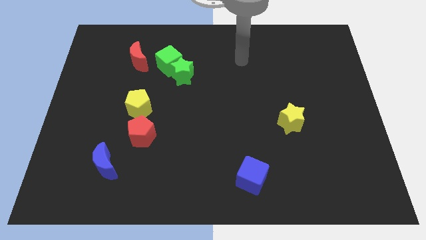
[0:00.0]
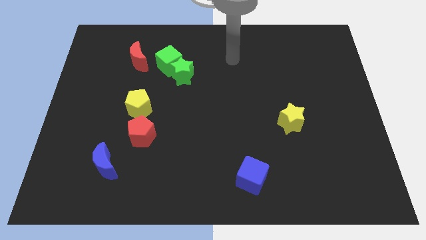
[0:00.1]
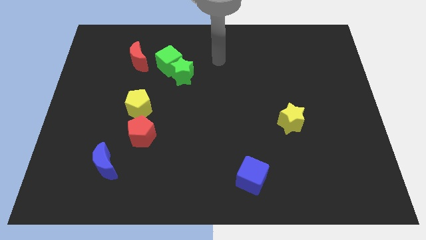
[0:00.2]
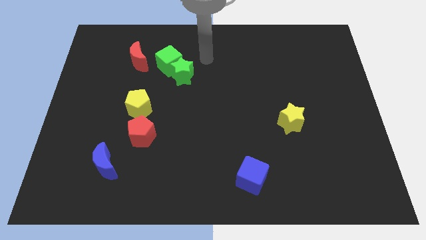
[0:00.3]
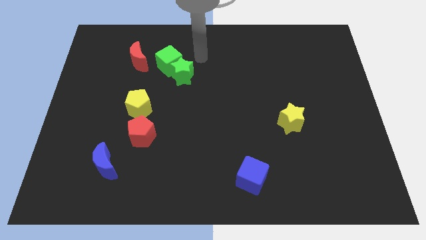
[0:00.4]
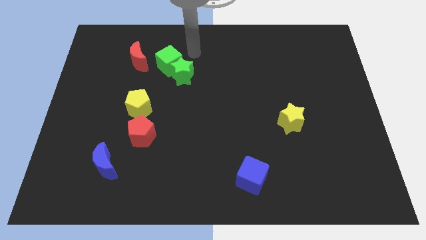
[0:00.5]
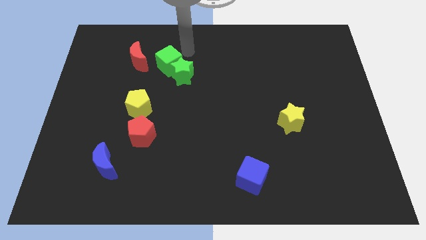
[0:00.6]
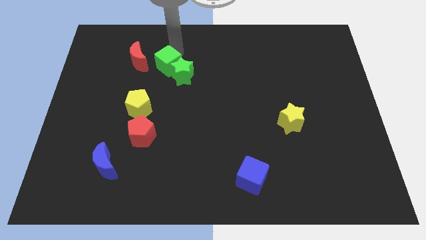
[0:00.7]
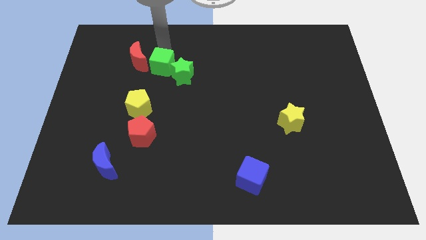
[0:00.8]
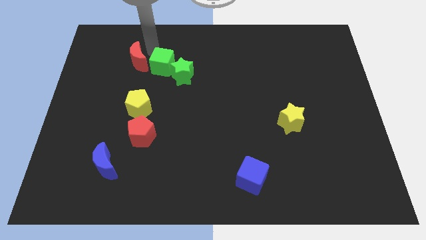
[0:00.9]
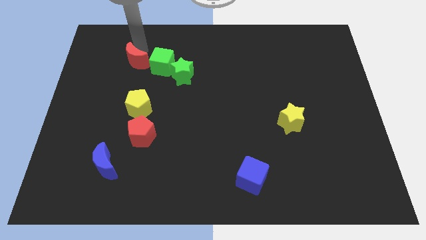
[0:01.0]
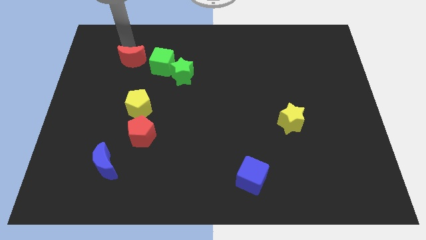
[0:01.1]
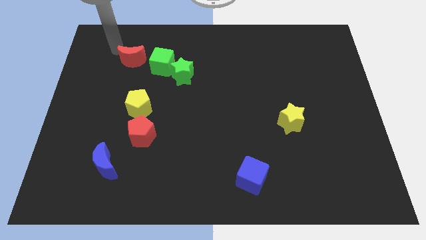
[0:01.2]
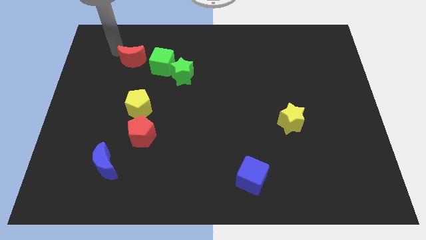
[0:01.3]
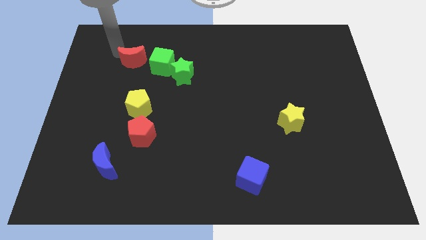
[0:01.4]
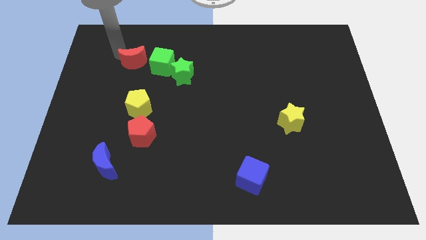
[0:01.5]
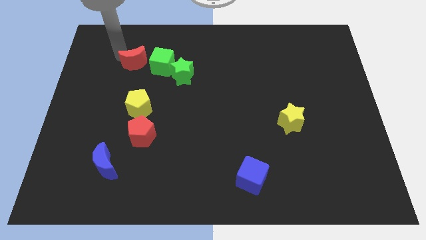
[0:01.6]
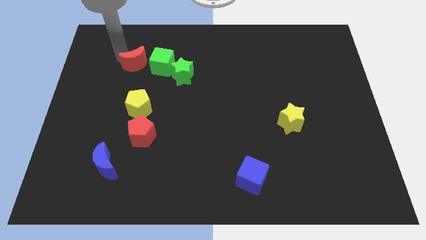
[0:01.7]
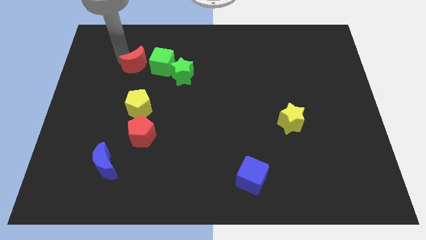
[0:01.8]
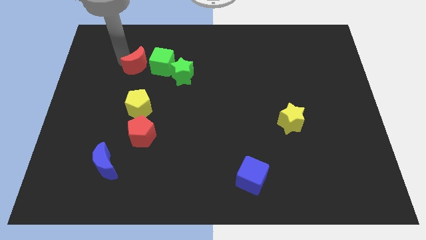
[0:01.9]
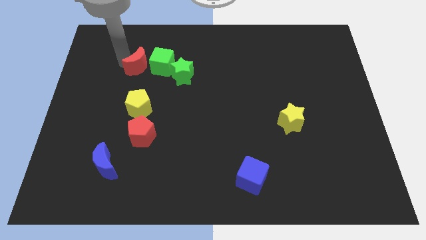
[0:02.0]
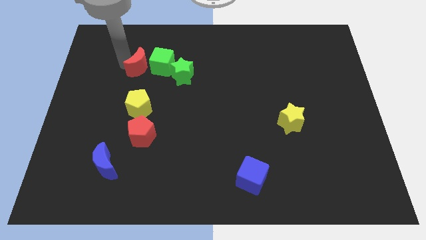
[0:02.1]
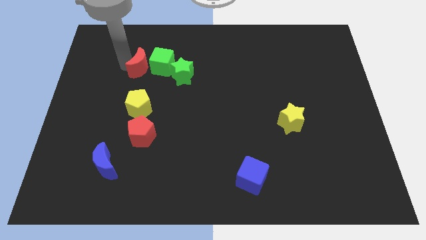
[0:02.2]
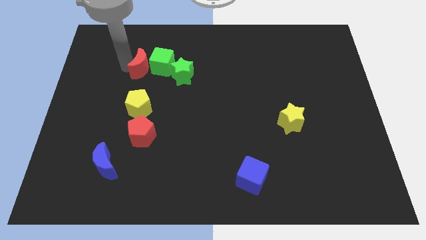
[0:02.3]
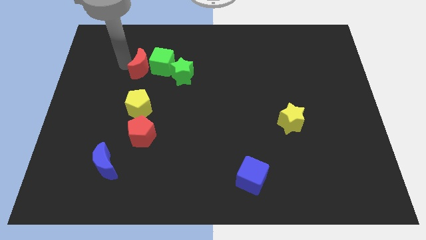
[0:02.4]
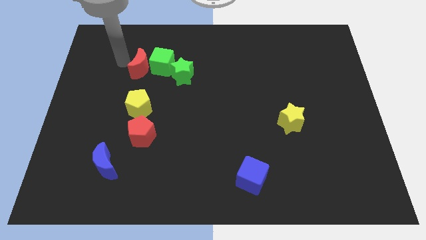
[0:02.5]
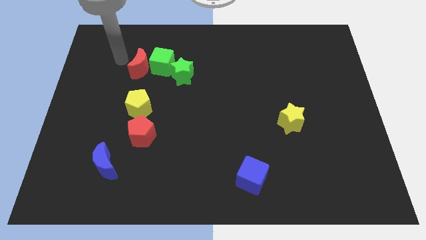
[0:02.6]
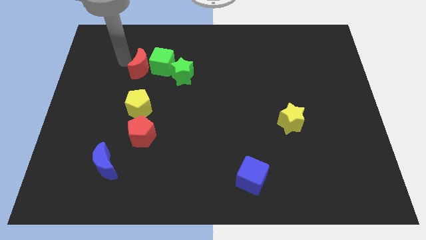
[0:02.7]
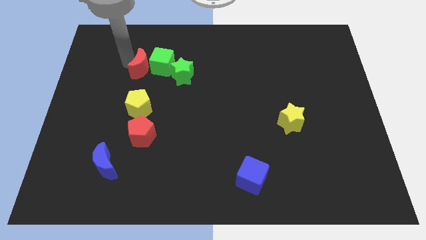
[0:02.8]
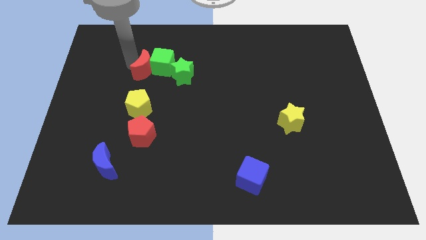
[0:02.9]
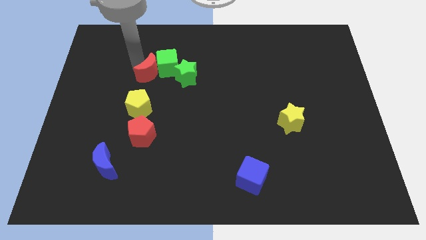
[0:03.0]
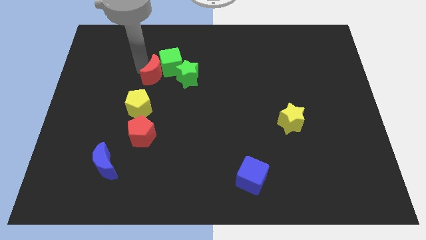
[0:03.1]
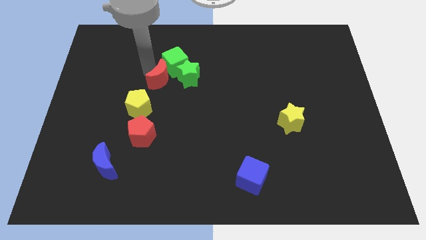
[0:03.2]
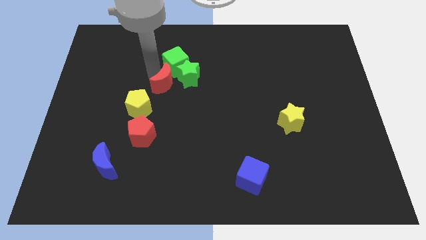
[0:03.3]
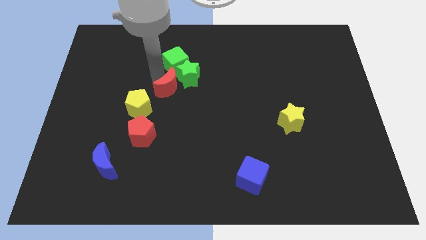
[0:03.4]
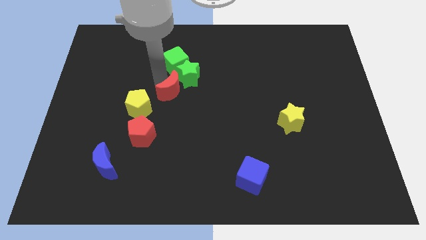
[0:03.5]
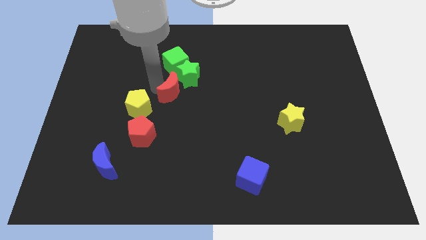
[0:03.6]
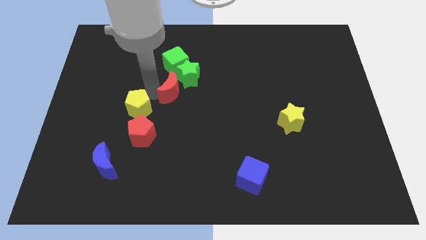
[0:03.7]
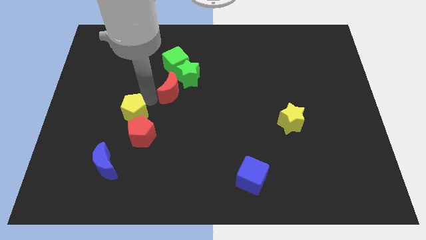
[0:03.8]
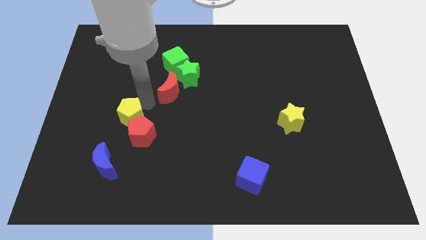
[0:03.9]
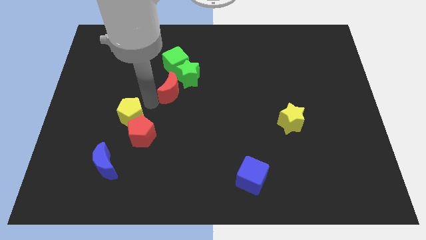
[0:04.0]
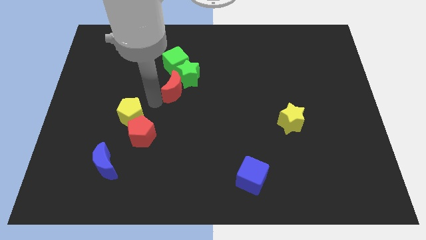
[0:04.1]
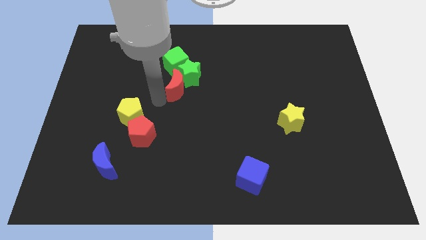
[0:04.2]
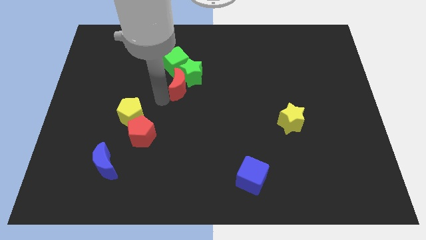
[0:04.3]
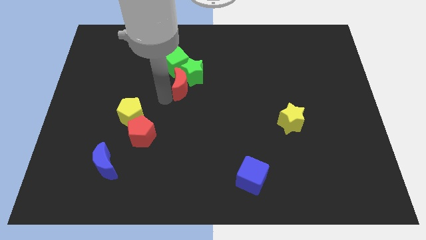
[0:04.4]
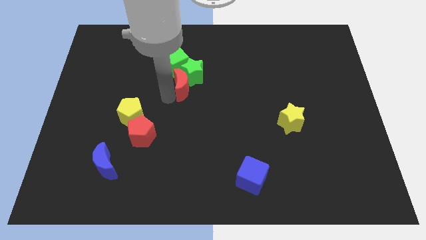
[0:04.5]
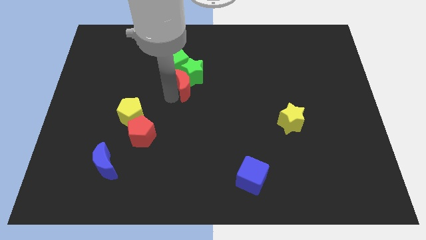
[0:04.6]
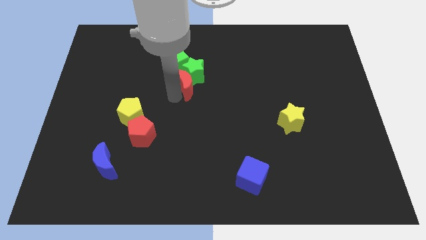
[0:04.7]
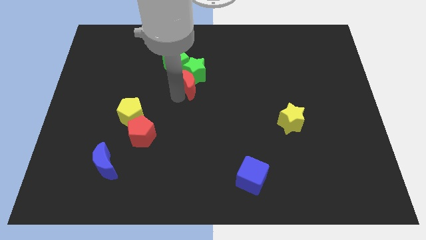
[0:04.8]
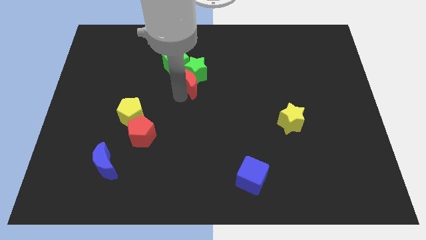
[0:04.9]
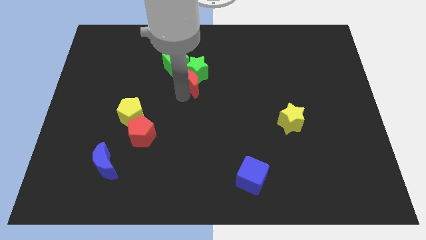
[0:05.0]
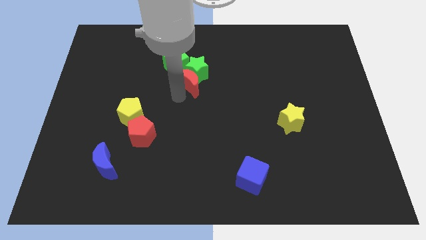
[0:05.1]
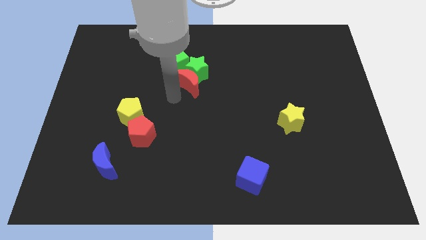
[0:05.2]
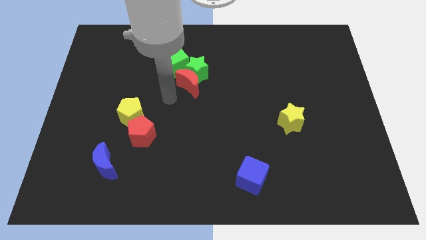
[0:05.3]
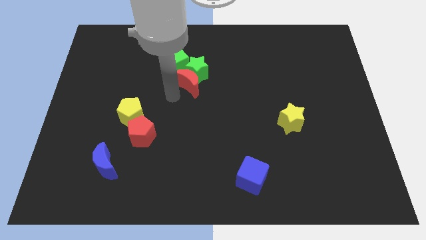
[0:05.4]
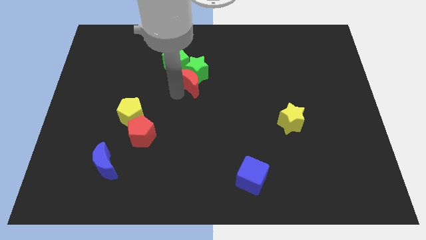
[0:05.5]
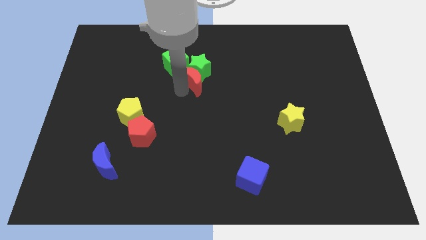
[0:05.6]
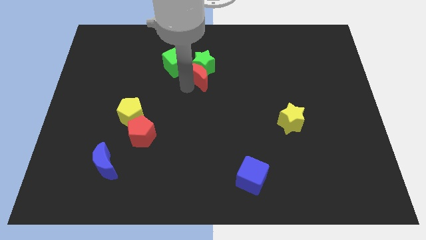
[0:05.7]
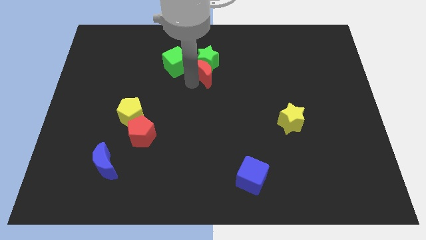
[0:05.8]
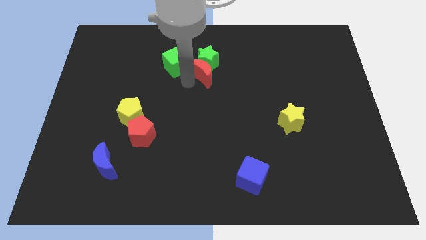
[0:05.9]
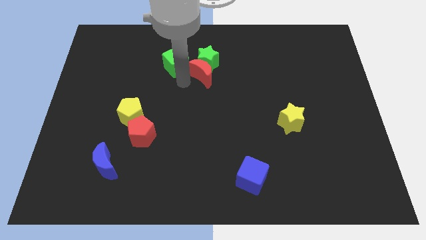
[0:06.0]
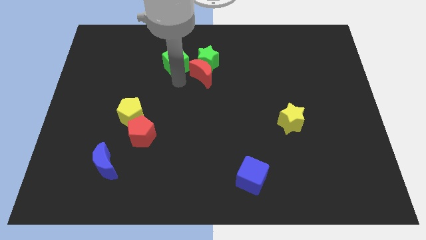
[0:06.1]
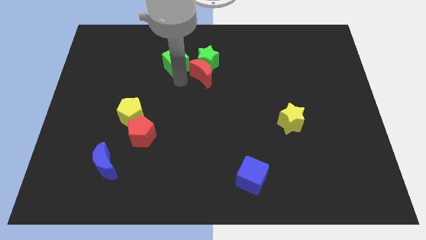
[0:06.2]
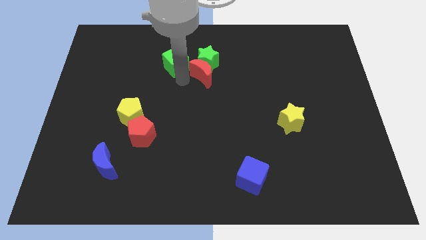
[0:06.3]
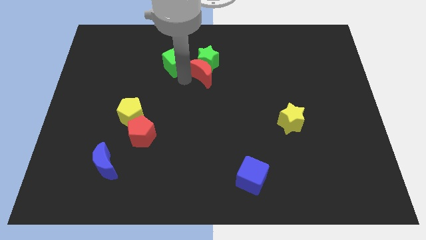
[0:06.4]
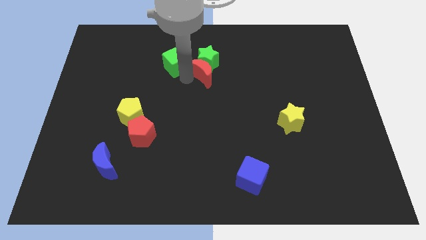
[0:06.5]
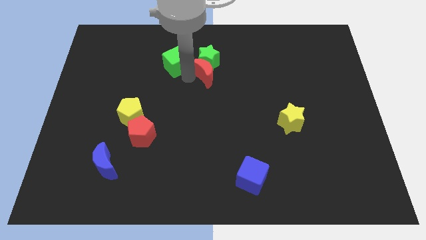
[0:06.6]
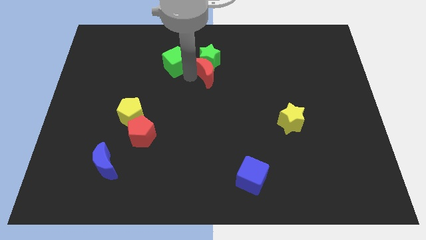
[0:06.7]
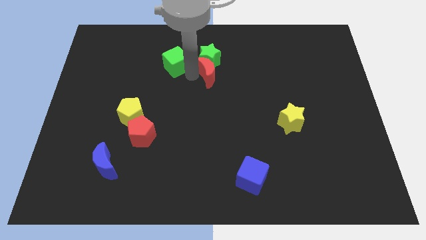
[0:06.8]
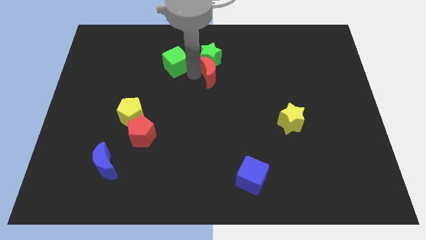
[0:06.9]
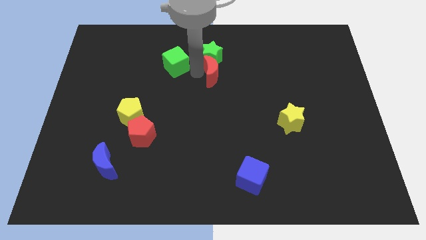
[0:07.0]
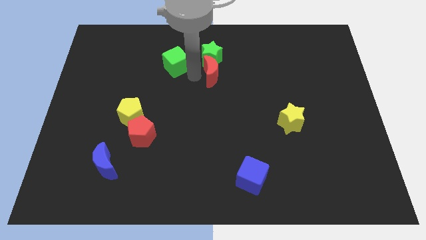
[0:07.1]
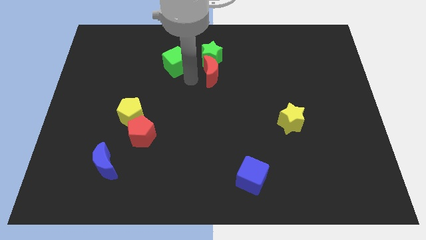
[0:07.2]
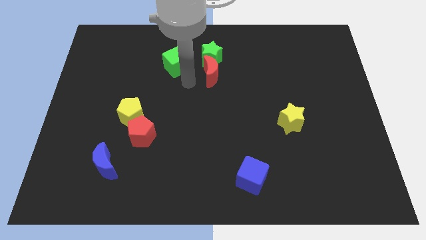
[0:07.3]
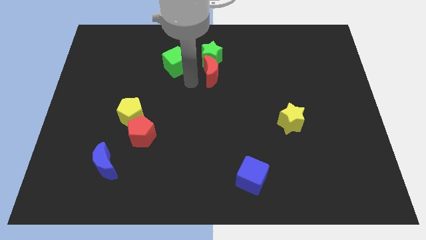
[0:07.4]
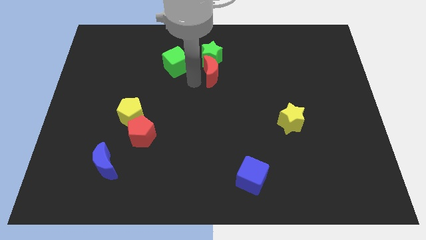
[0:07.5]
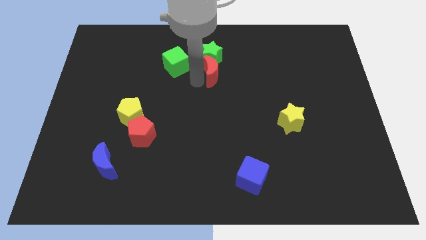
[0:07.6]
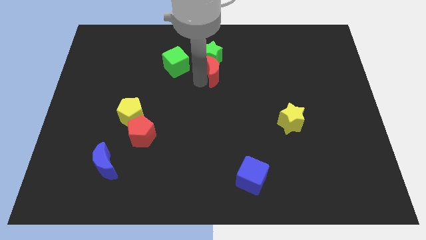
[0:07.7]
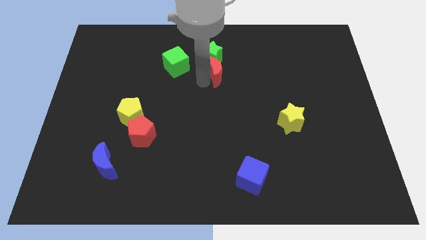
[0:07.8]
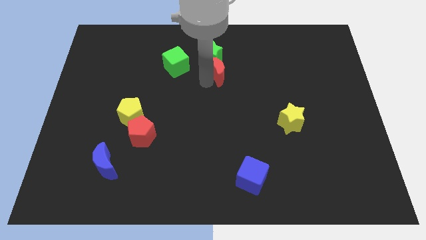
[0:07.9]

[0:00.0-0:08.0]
push the red moon right
